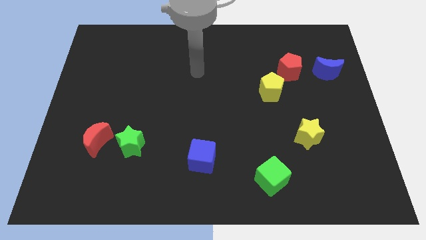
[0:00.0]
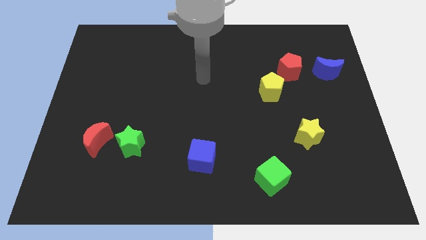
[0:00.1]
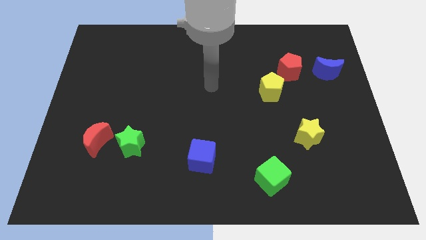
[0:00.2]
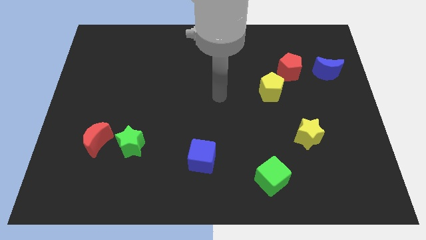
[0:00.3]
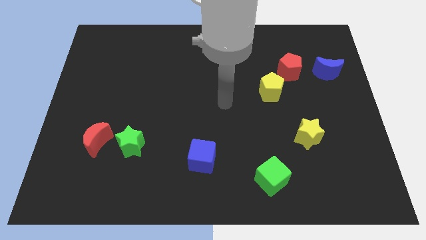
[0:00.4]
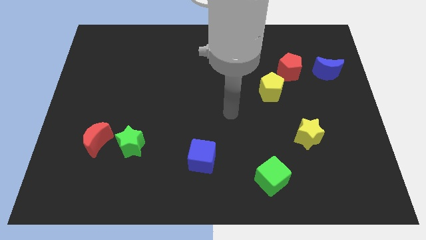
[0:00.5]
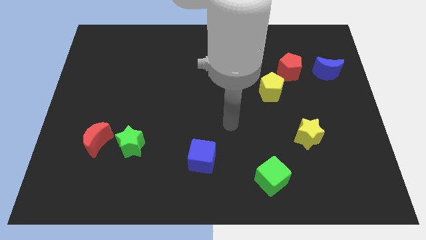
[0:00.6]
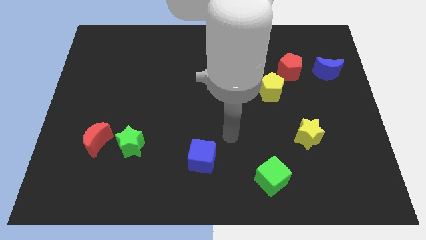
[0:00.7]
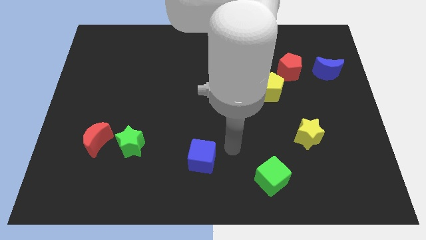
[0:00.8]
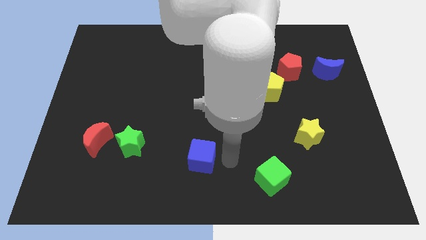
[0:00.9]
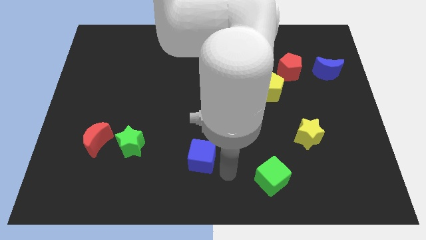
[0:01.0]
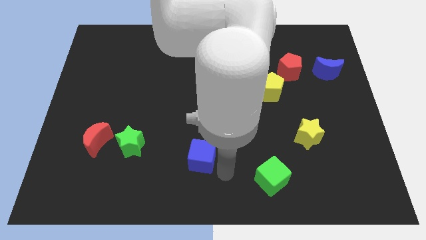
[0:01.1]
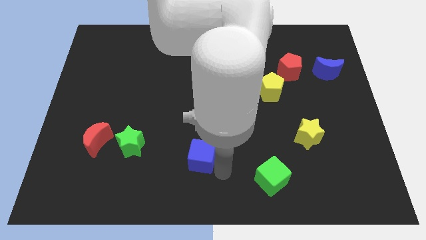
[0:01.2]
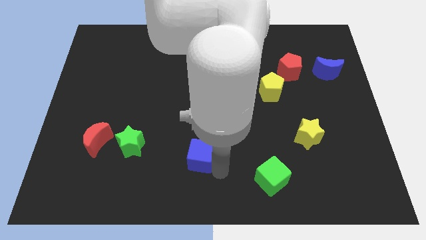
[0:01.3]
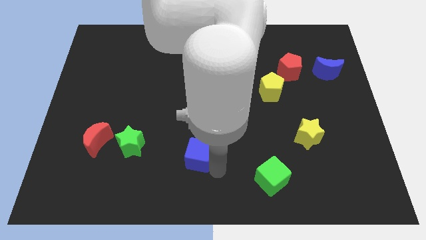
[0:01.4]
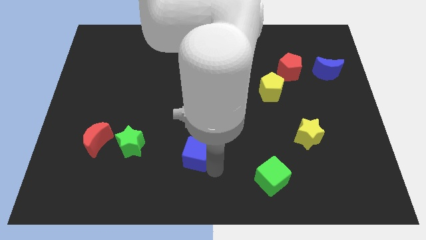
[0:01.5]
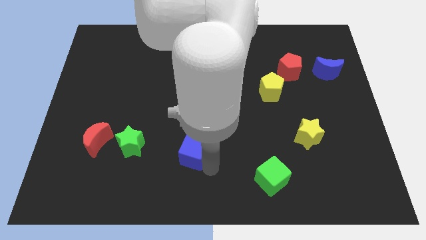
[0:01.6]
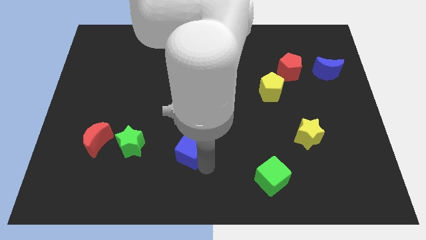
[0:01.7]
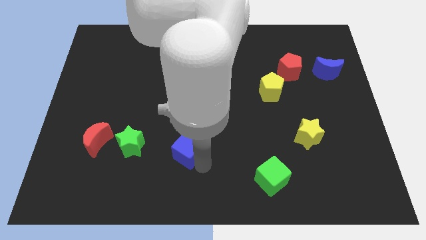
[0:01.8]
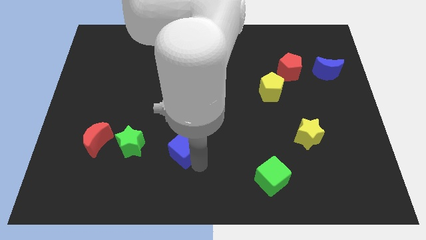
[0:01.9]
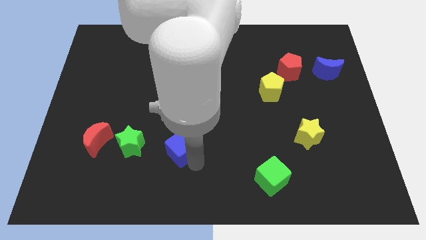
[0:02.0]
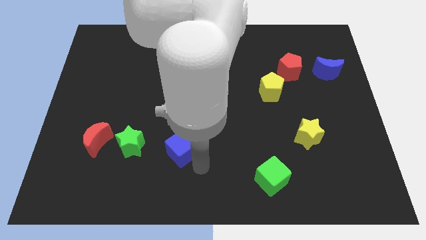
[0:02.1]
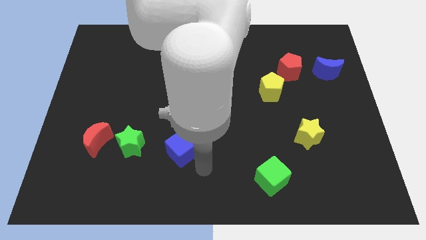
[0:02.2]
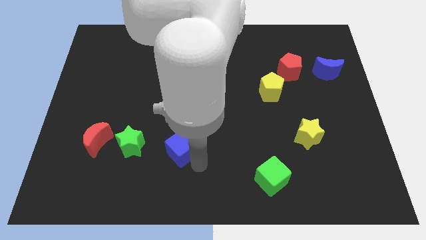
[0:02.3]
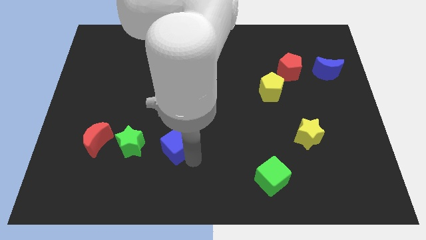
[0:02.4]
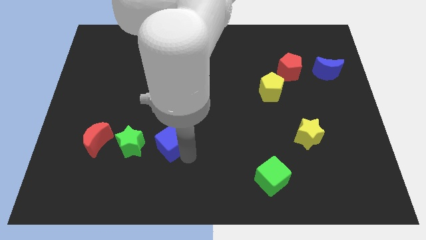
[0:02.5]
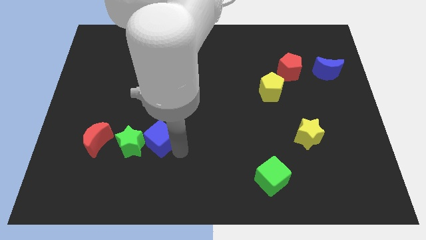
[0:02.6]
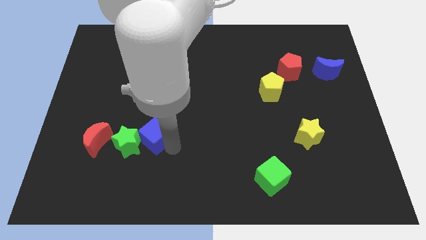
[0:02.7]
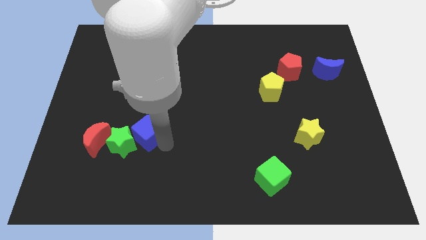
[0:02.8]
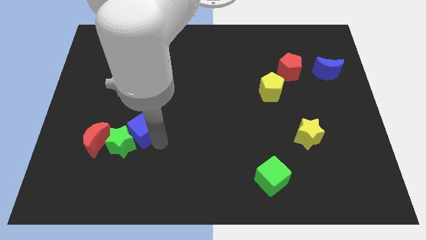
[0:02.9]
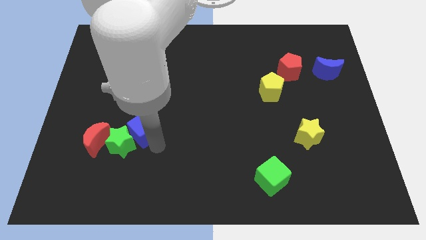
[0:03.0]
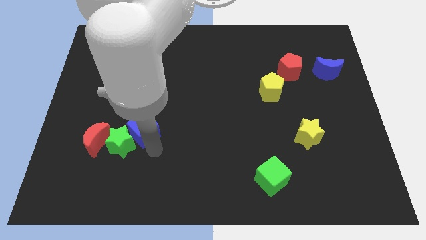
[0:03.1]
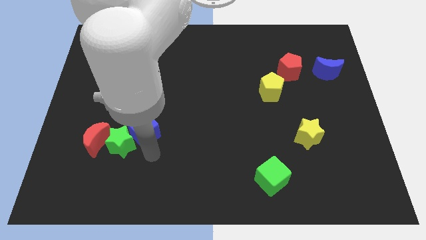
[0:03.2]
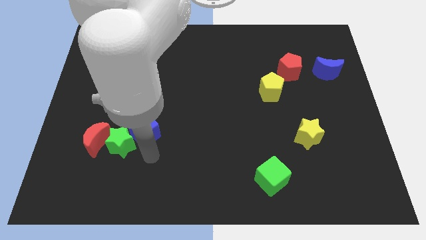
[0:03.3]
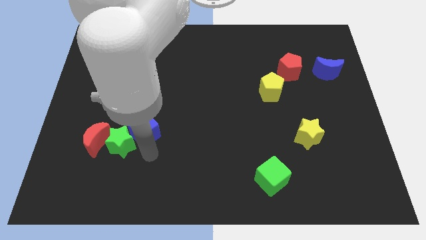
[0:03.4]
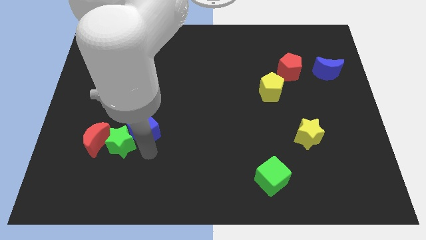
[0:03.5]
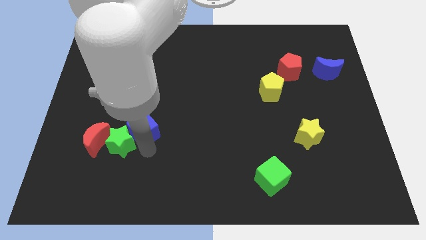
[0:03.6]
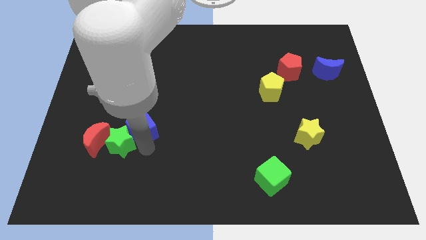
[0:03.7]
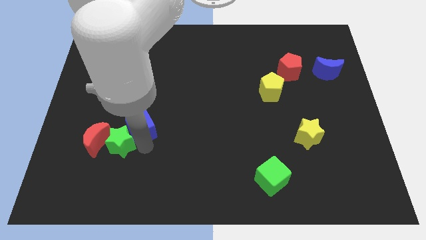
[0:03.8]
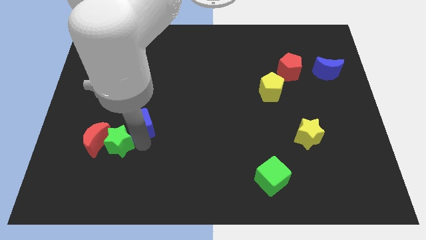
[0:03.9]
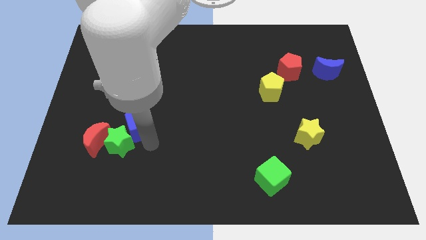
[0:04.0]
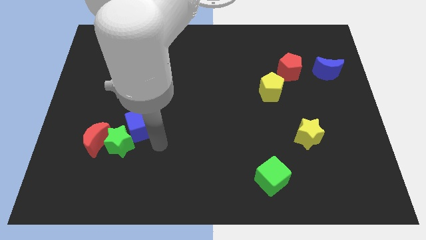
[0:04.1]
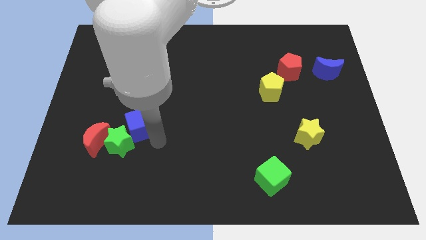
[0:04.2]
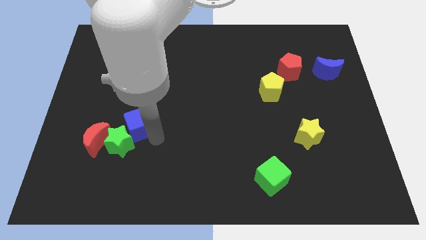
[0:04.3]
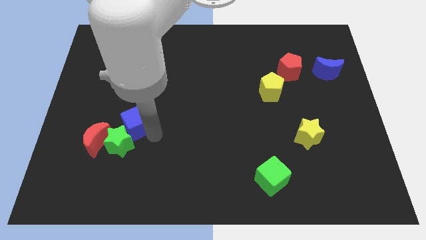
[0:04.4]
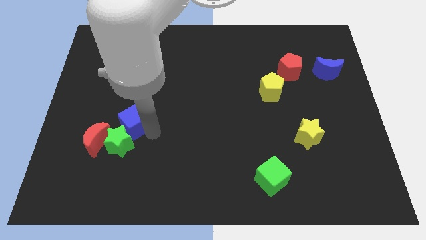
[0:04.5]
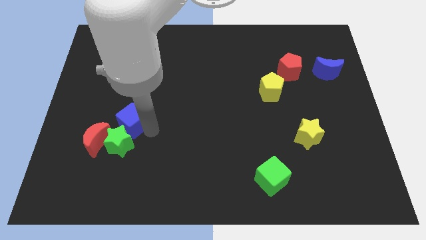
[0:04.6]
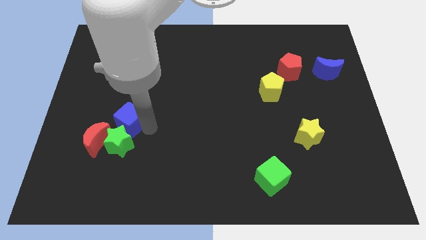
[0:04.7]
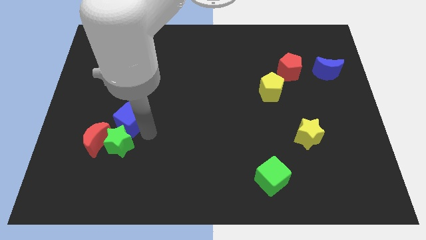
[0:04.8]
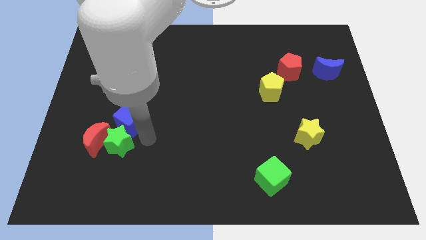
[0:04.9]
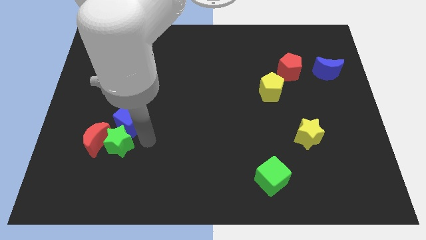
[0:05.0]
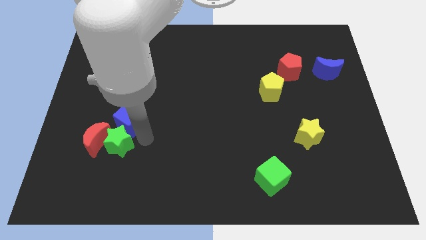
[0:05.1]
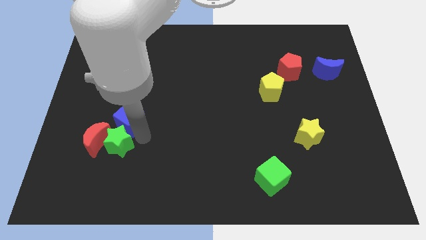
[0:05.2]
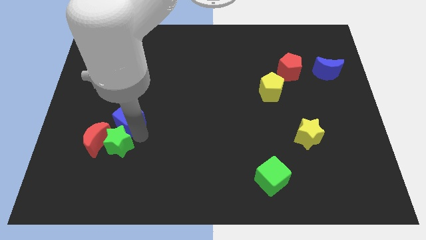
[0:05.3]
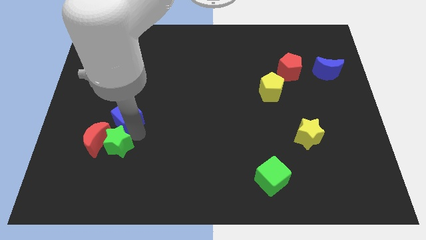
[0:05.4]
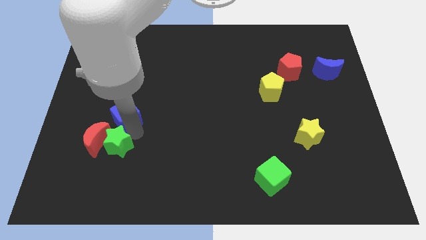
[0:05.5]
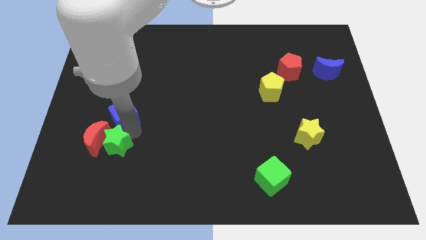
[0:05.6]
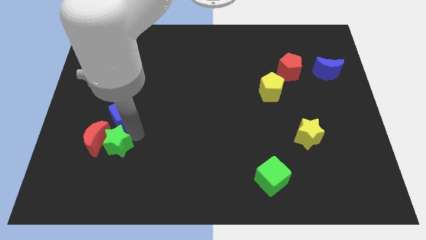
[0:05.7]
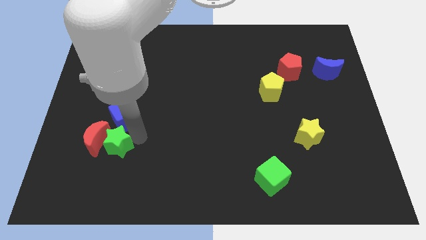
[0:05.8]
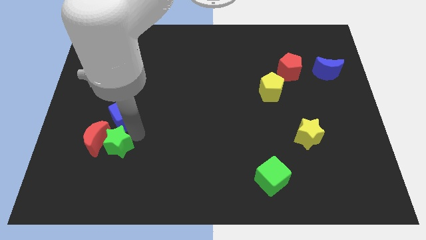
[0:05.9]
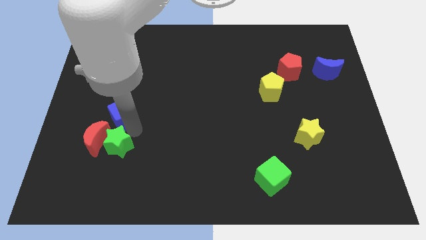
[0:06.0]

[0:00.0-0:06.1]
slide the blue cube above the red moon

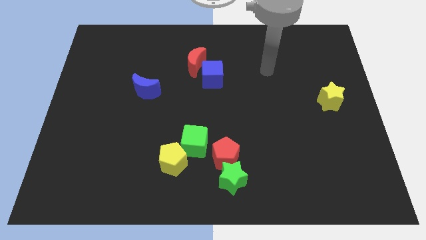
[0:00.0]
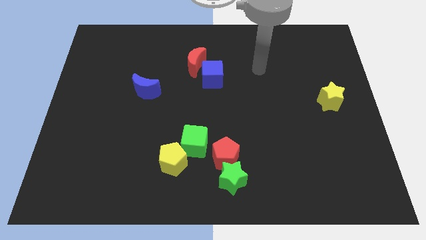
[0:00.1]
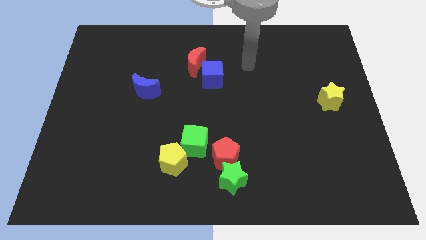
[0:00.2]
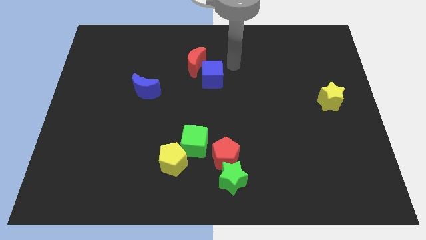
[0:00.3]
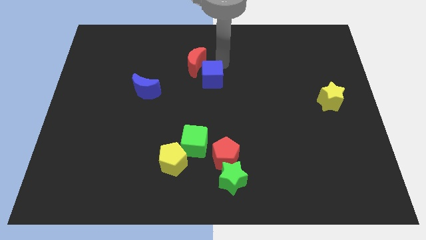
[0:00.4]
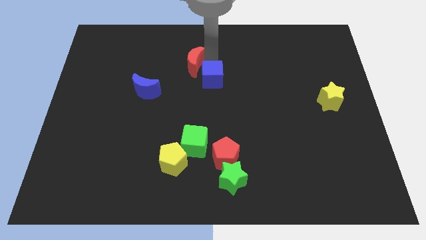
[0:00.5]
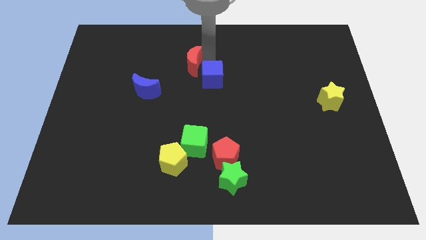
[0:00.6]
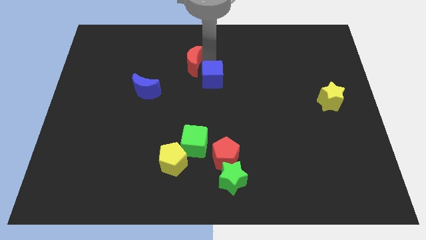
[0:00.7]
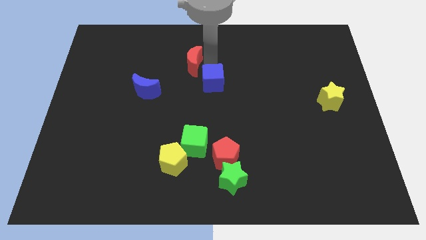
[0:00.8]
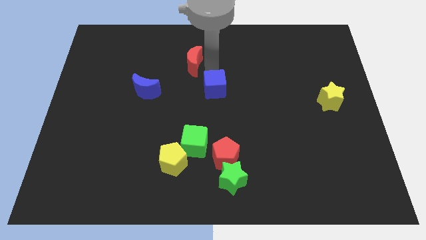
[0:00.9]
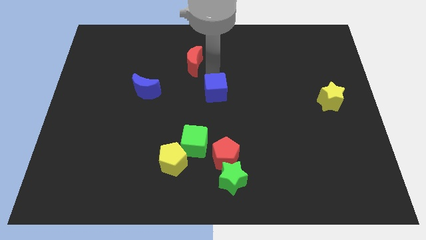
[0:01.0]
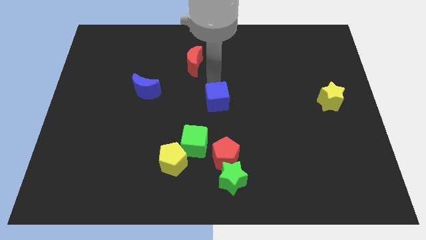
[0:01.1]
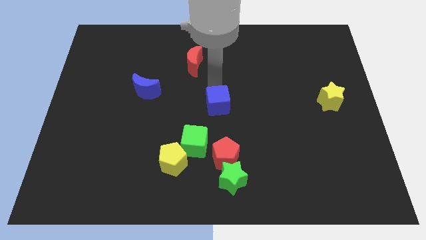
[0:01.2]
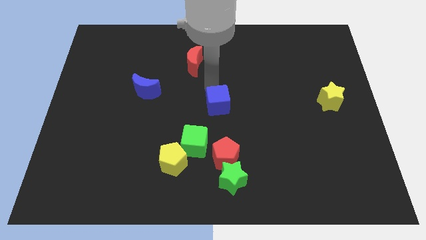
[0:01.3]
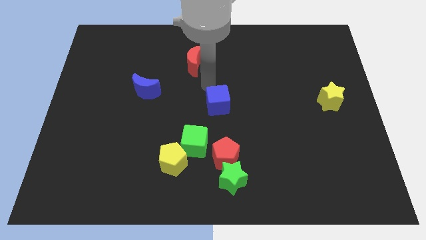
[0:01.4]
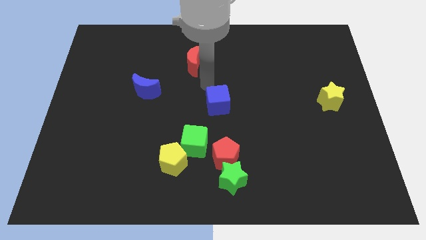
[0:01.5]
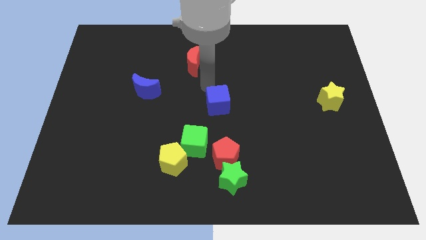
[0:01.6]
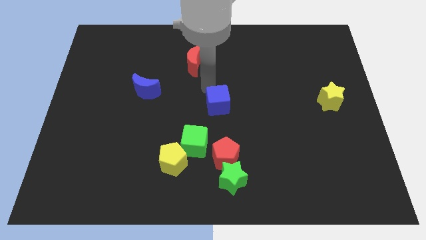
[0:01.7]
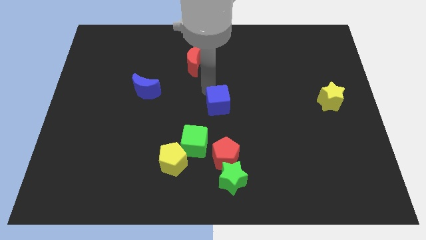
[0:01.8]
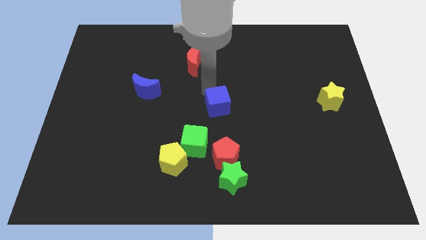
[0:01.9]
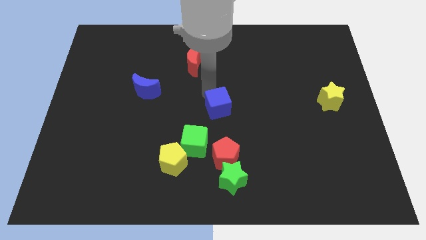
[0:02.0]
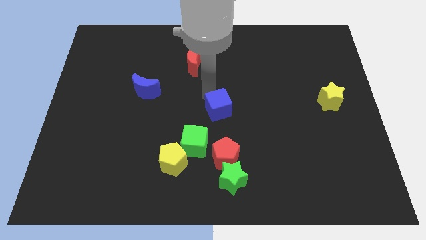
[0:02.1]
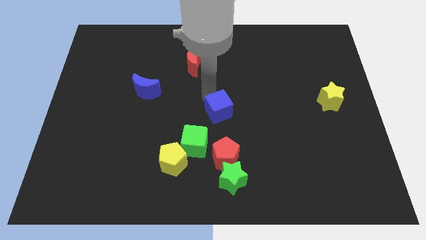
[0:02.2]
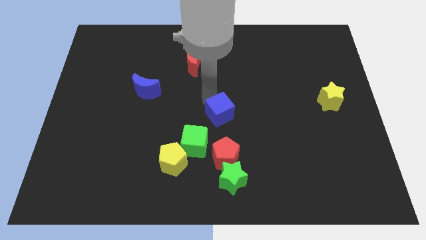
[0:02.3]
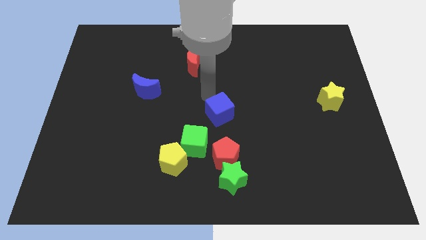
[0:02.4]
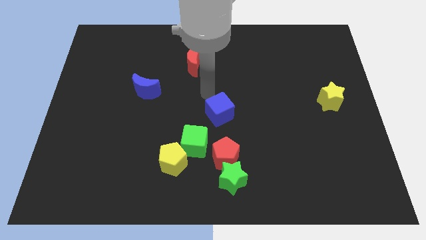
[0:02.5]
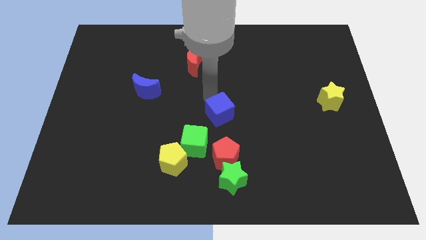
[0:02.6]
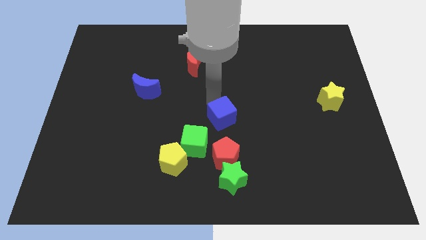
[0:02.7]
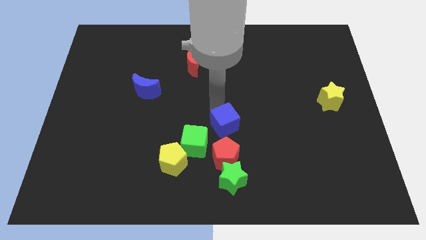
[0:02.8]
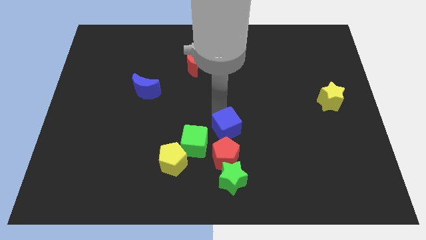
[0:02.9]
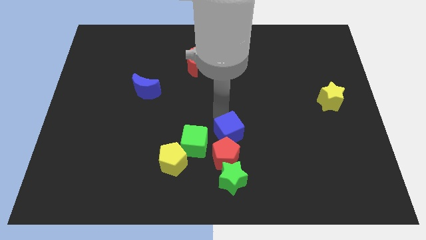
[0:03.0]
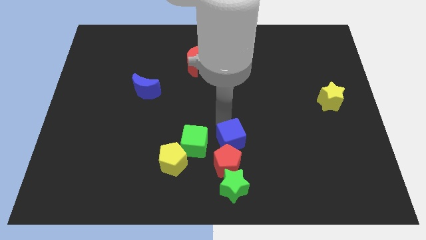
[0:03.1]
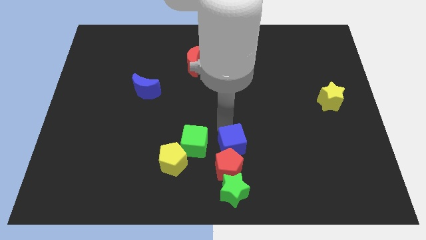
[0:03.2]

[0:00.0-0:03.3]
push the blue cube to the right of the yellow pentagon
